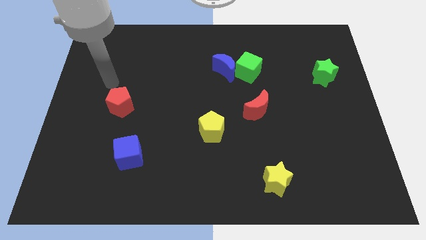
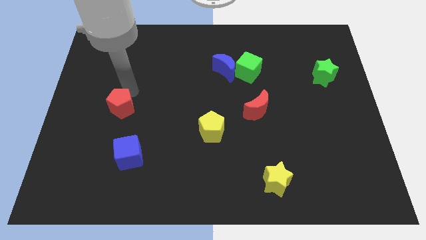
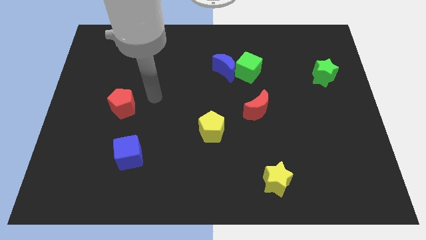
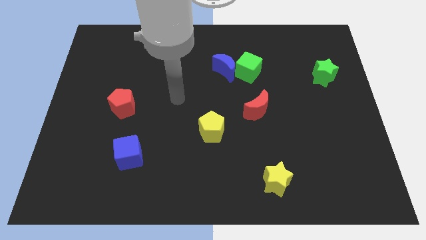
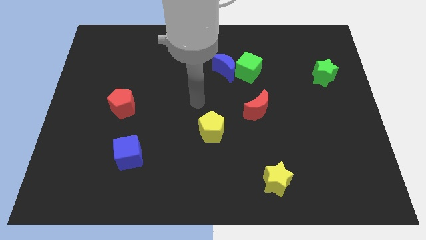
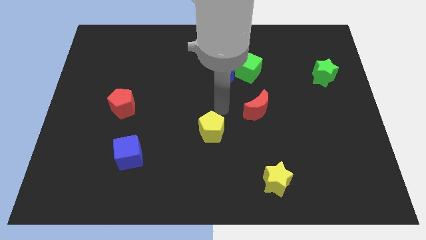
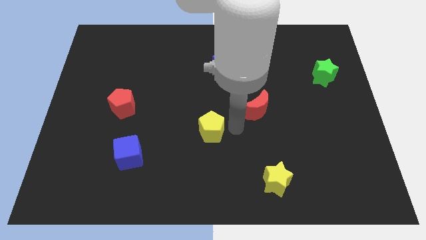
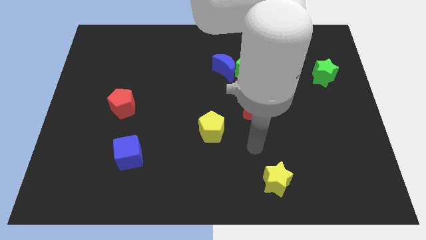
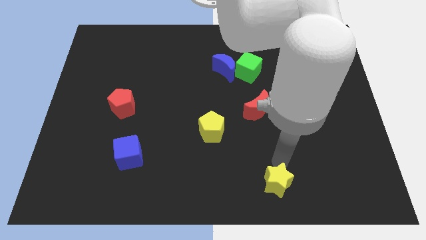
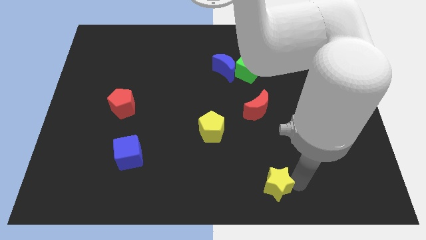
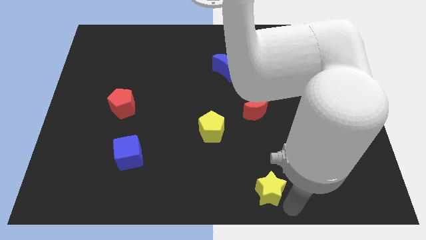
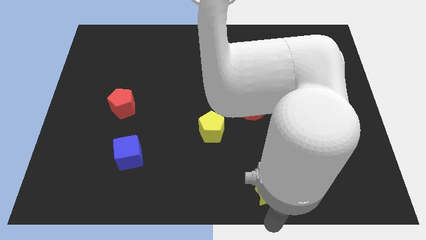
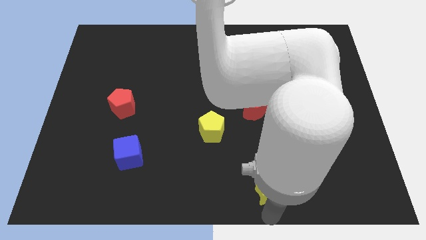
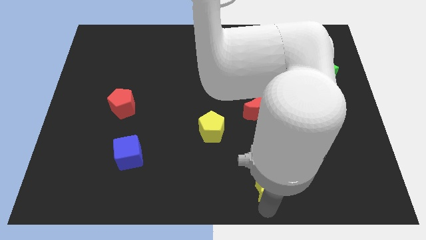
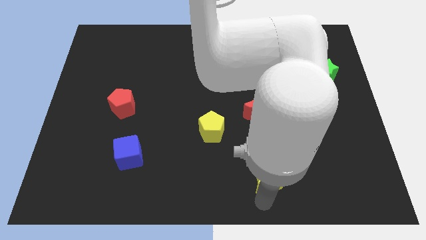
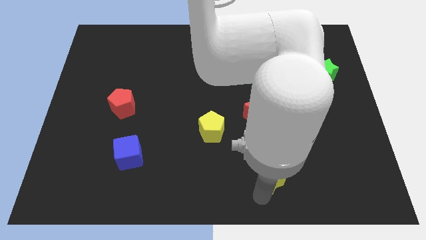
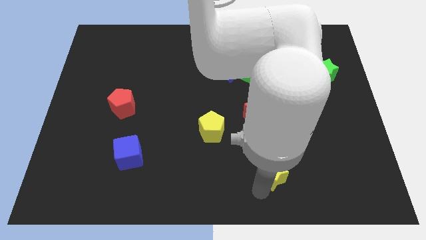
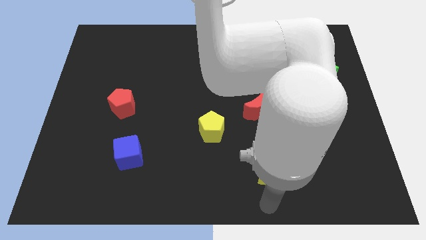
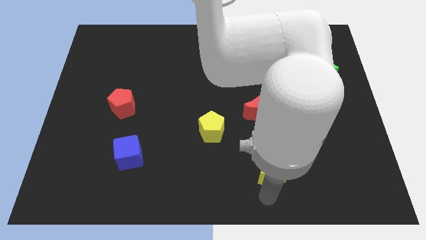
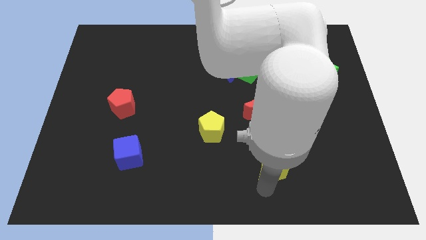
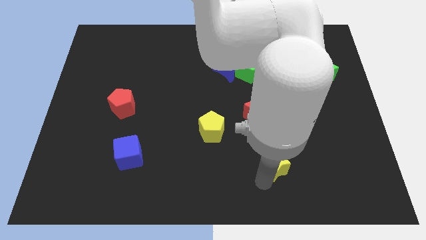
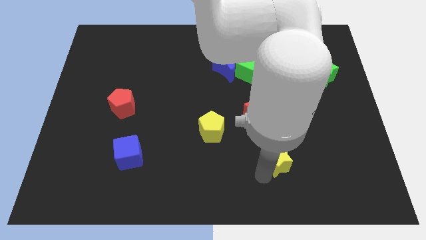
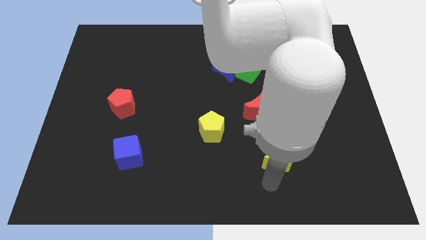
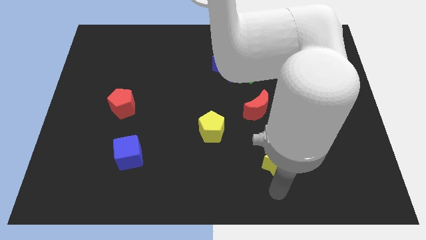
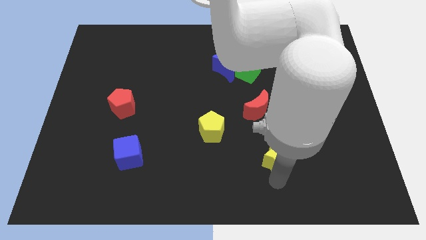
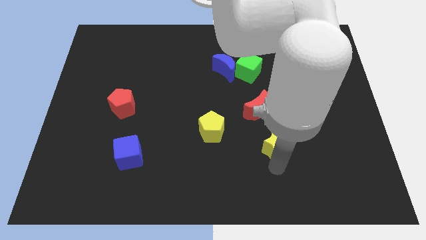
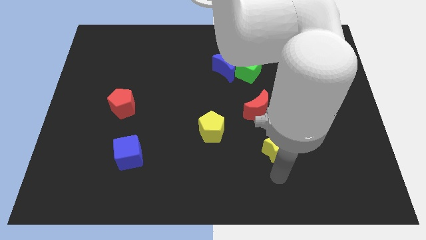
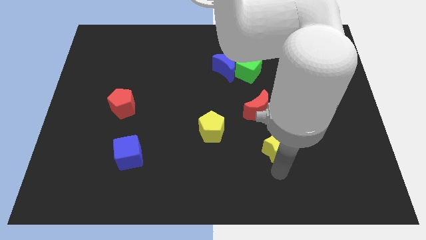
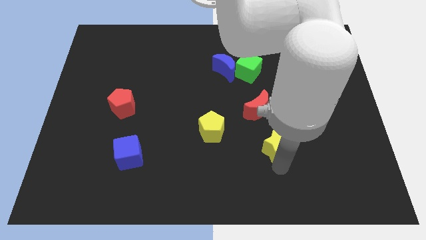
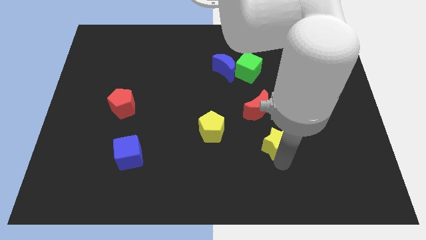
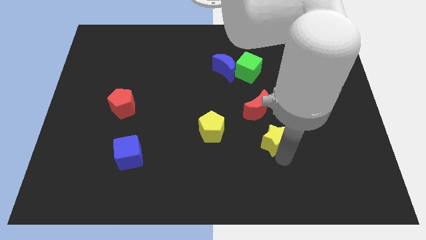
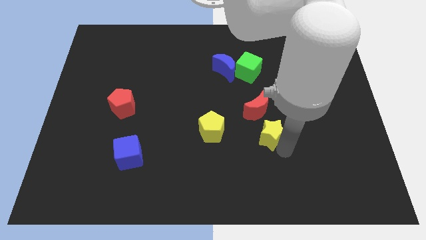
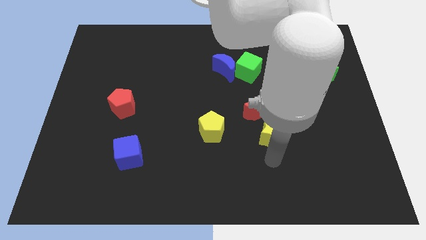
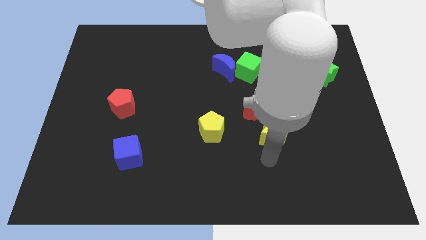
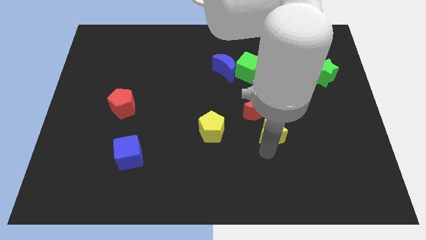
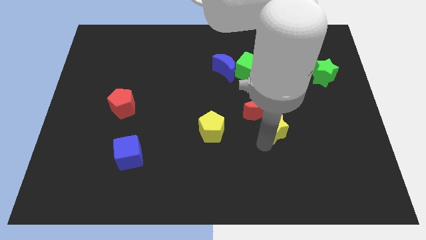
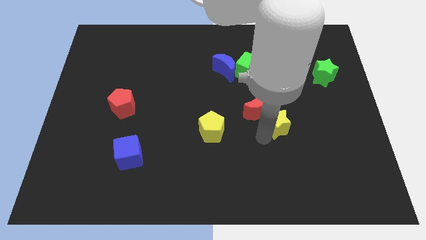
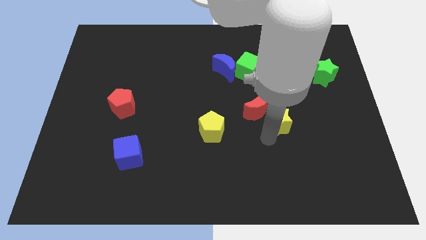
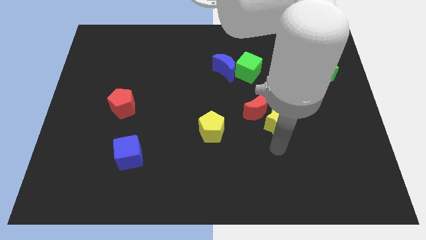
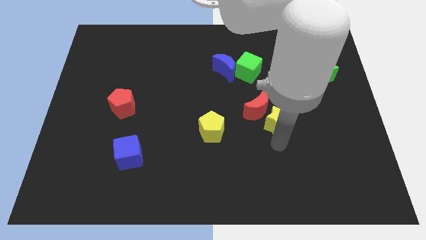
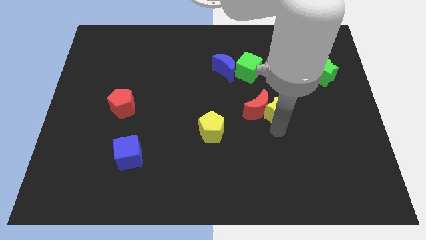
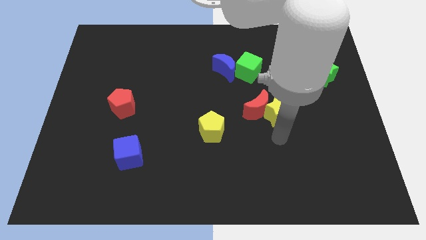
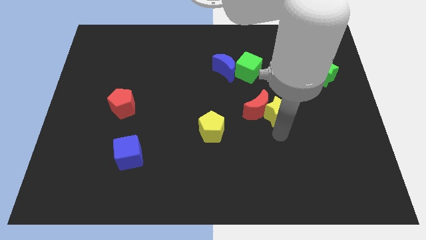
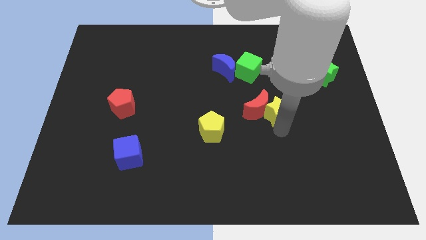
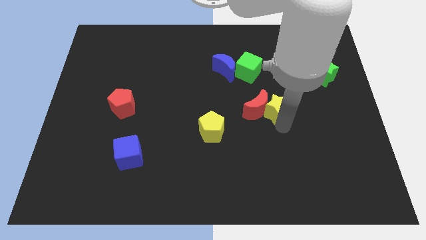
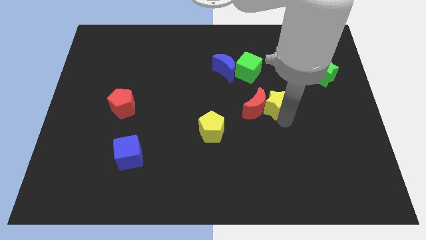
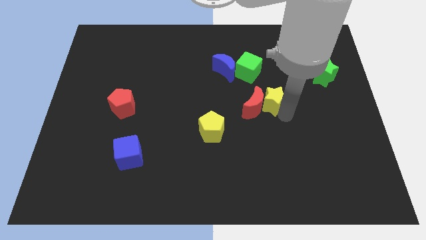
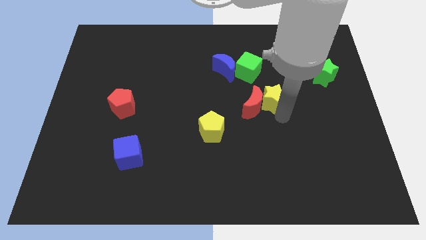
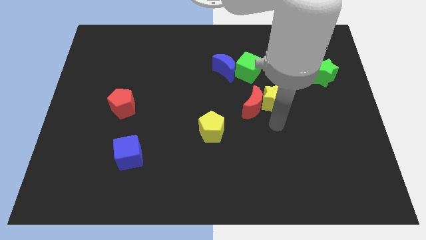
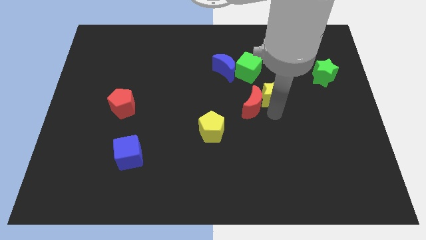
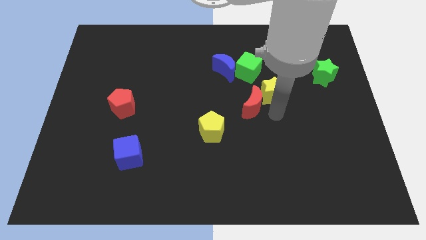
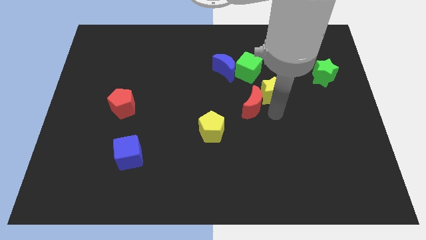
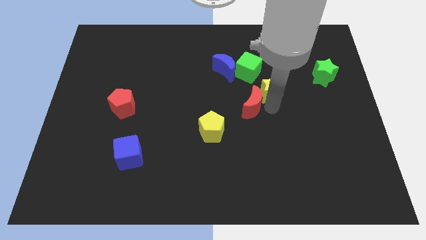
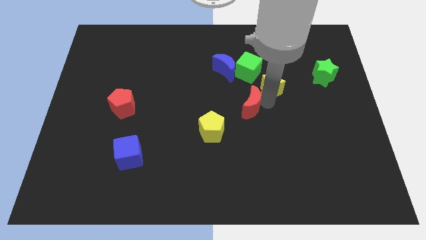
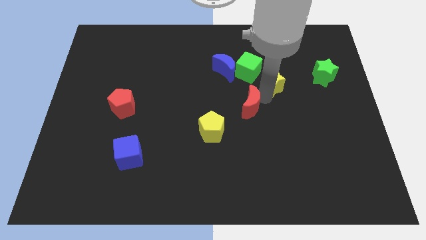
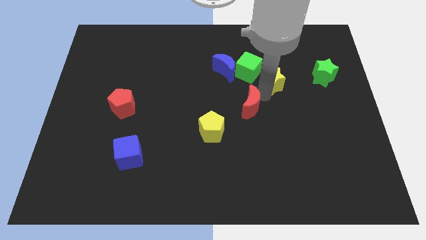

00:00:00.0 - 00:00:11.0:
put the yellow star right of the blue moon

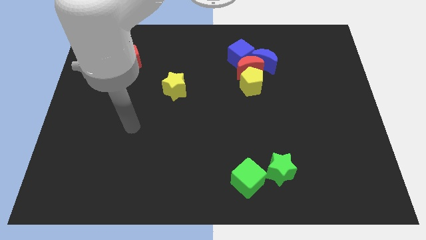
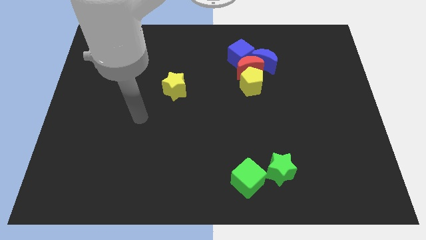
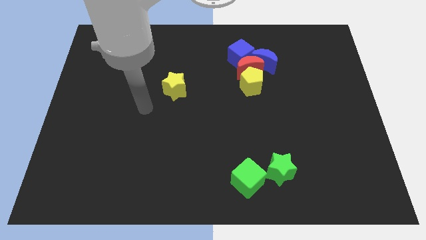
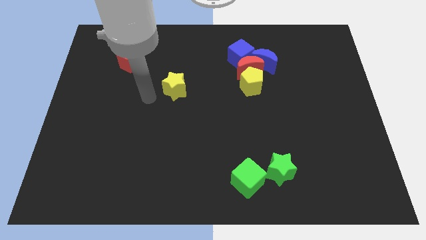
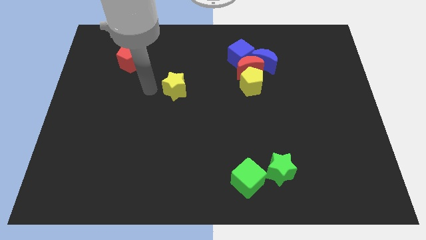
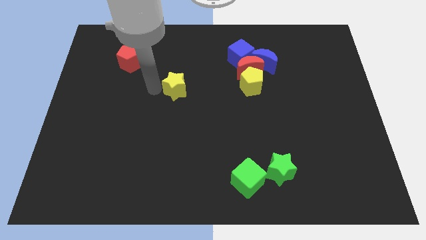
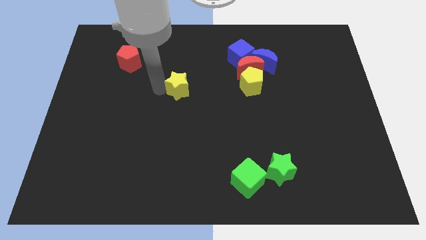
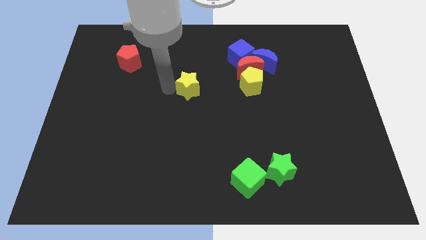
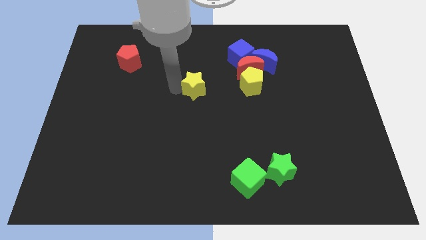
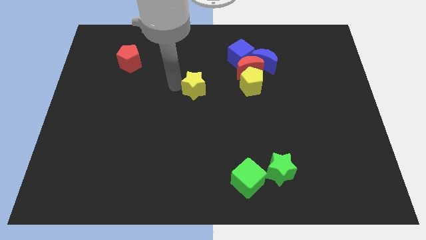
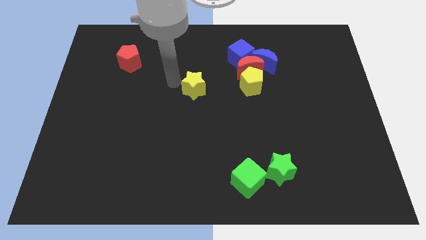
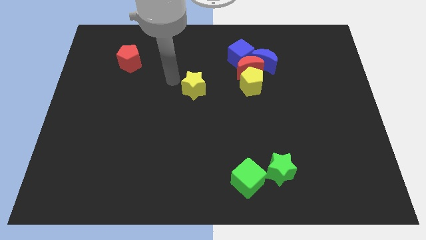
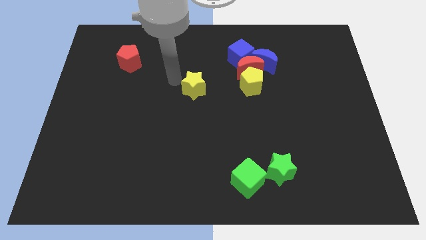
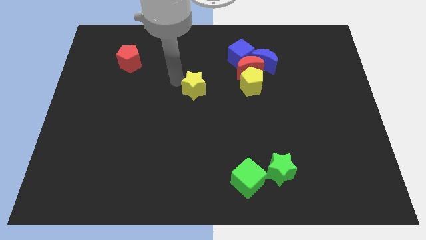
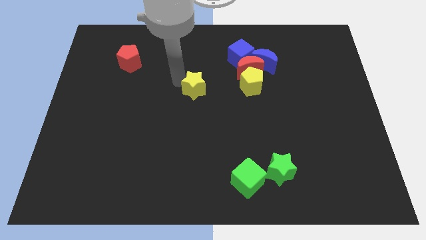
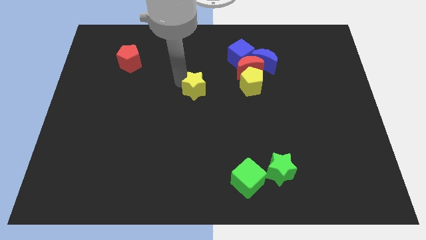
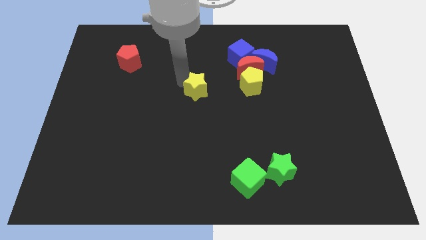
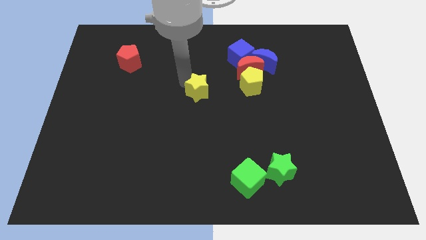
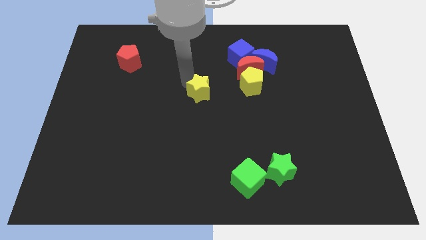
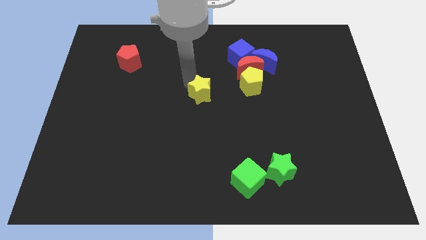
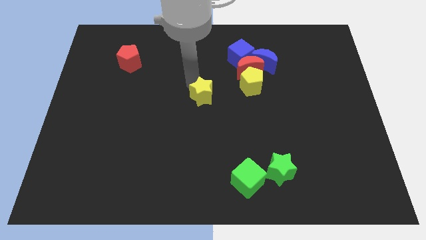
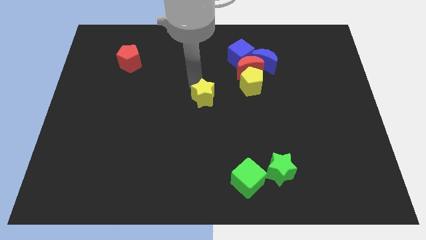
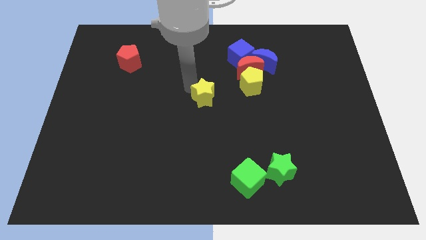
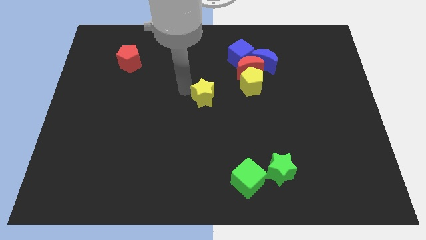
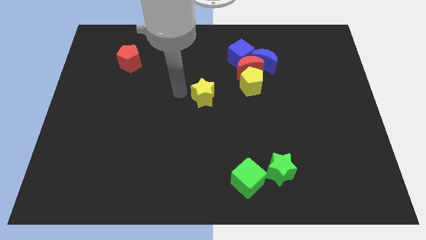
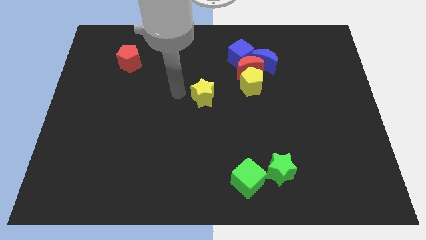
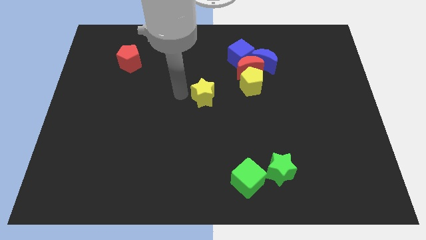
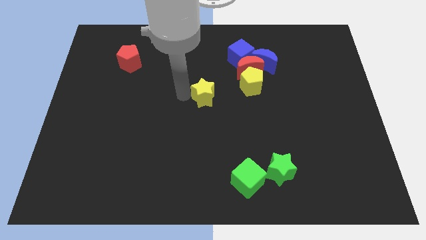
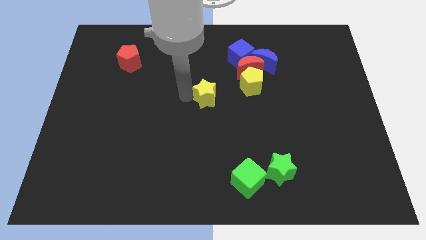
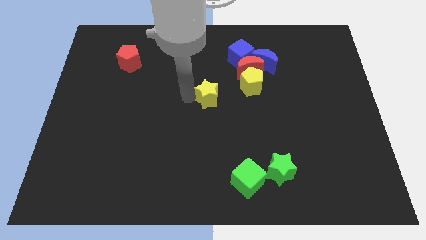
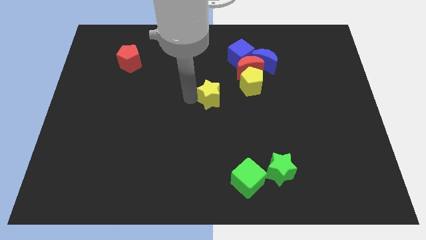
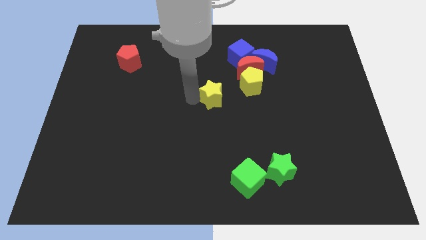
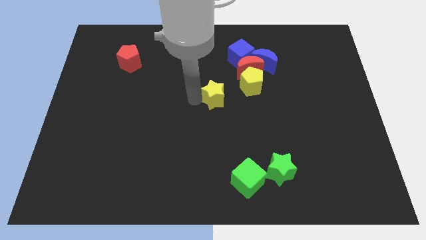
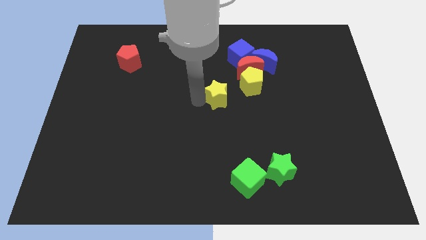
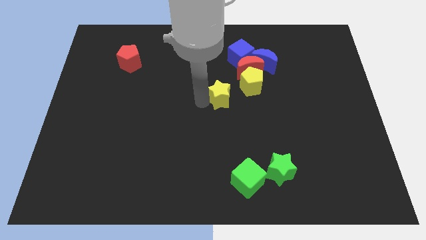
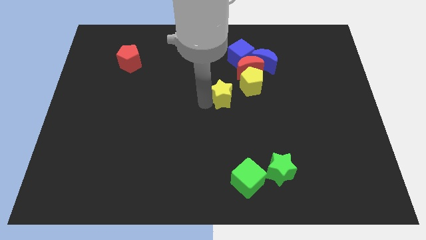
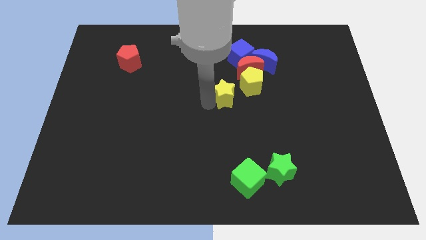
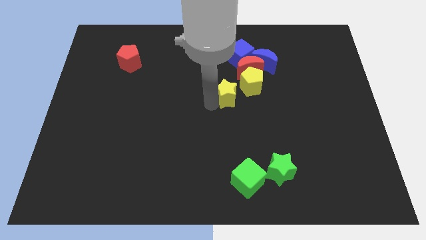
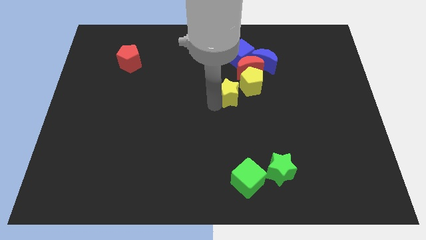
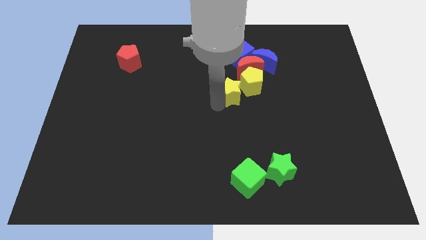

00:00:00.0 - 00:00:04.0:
move the yellow star to the bottom of the red moon
